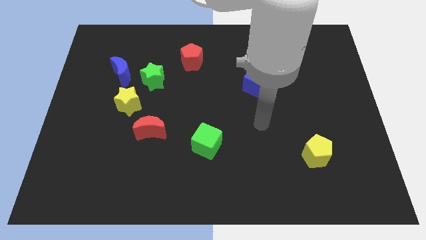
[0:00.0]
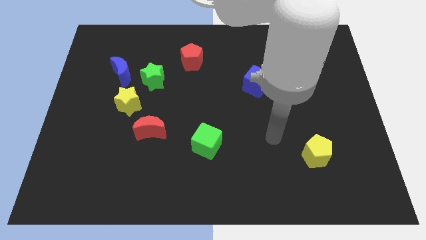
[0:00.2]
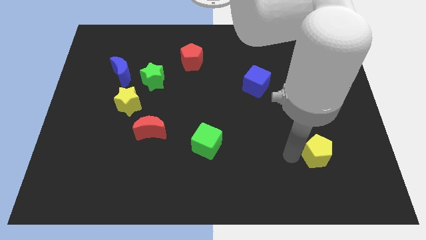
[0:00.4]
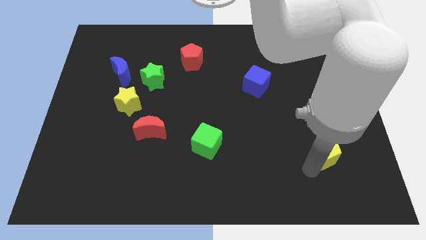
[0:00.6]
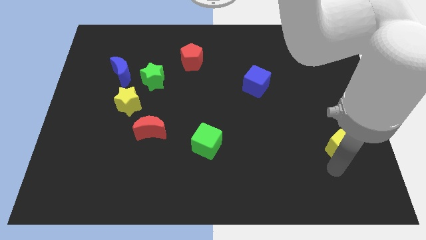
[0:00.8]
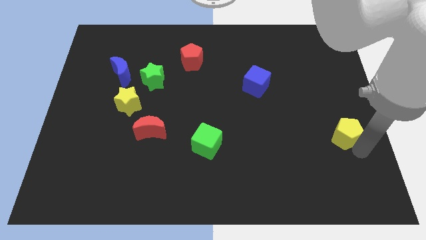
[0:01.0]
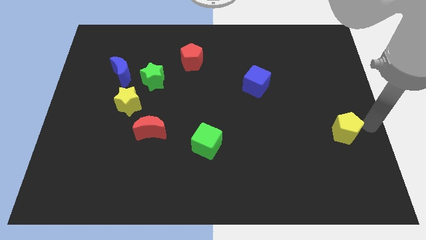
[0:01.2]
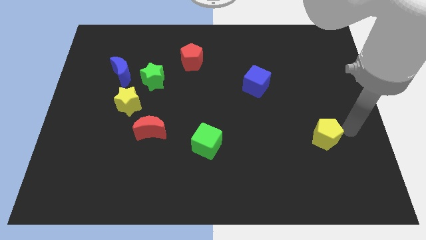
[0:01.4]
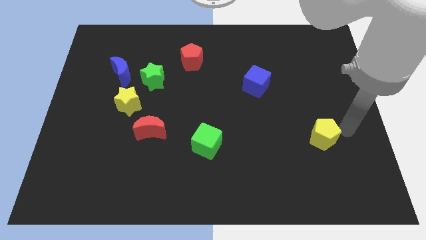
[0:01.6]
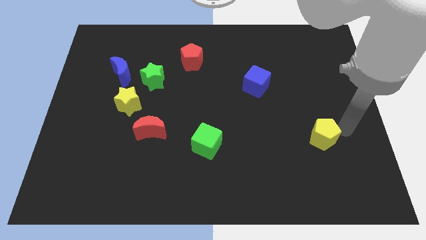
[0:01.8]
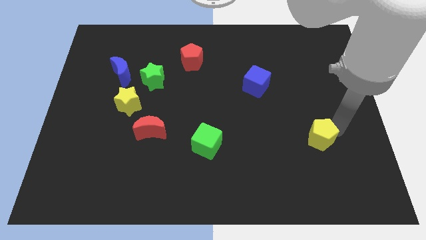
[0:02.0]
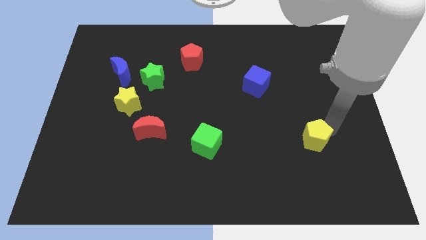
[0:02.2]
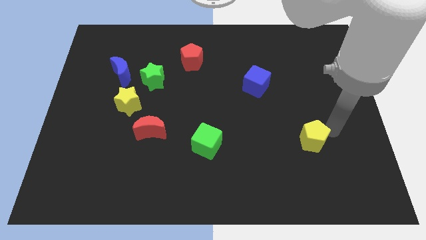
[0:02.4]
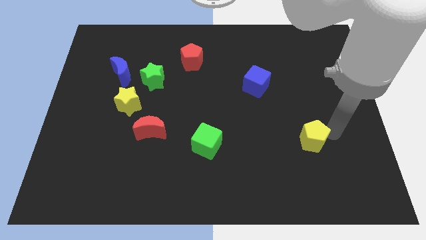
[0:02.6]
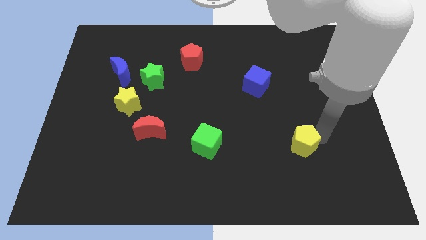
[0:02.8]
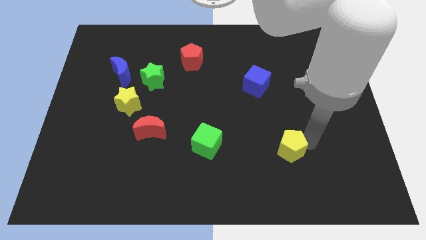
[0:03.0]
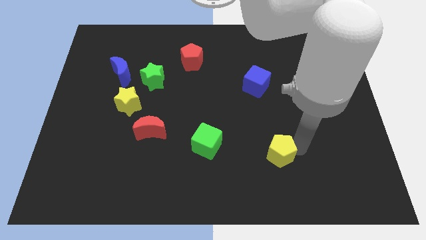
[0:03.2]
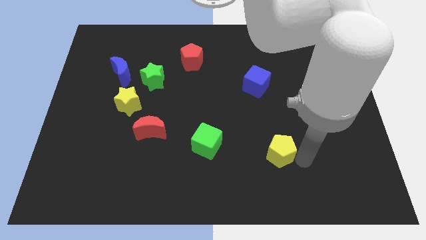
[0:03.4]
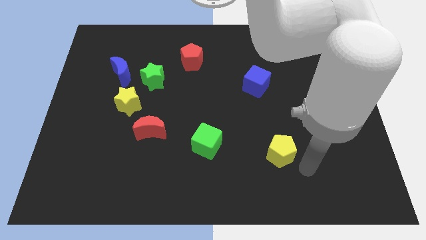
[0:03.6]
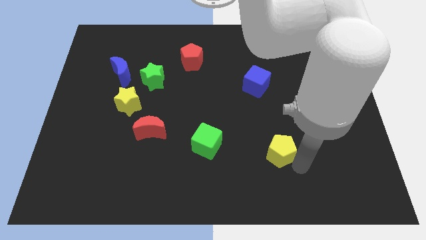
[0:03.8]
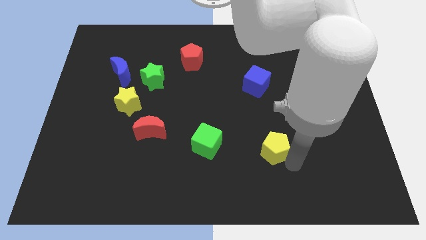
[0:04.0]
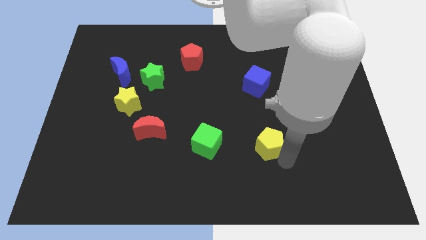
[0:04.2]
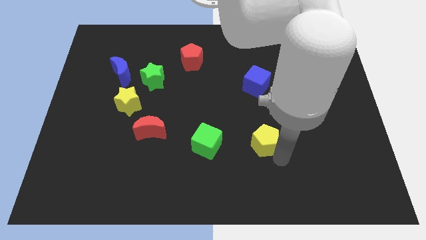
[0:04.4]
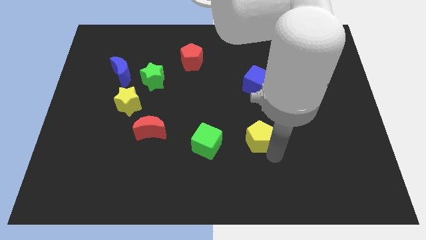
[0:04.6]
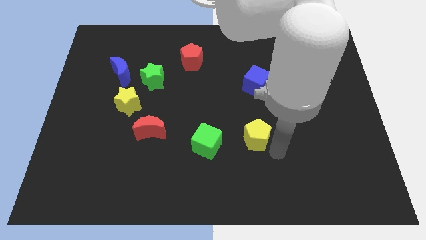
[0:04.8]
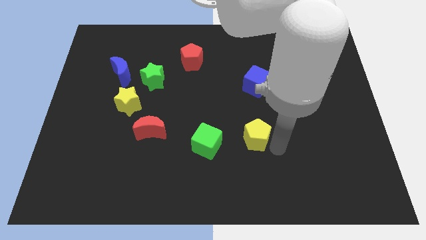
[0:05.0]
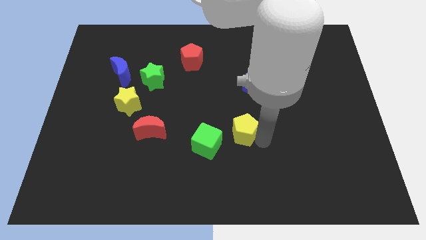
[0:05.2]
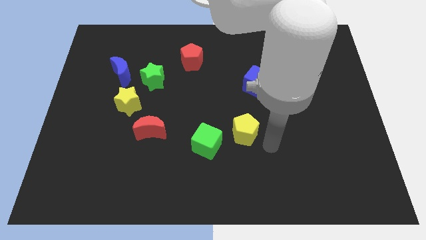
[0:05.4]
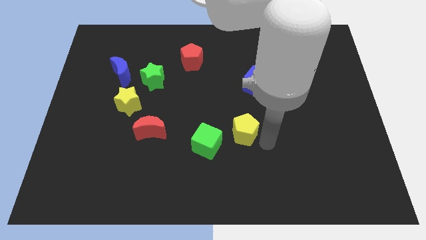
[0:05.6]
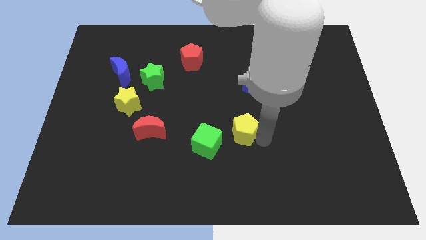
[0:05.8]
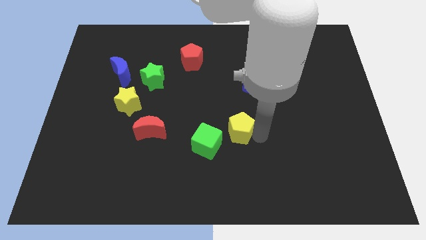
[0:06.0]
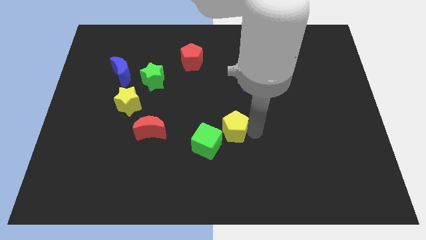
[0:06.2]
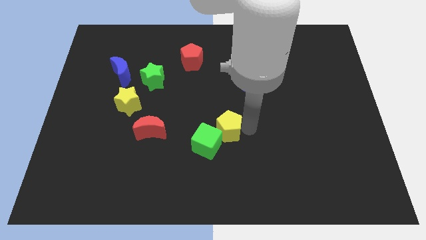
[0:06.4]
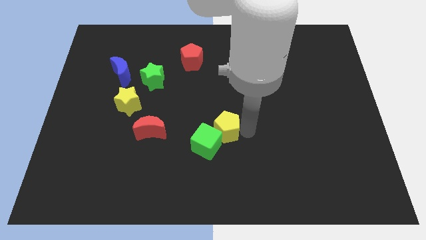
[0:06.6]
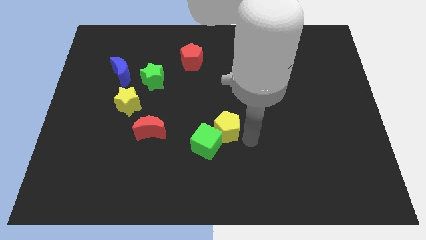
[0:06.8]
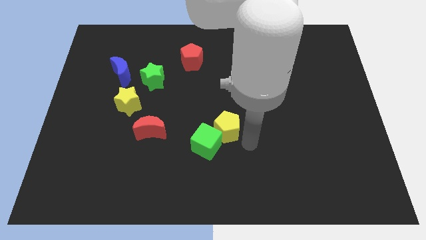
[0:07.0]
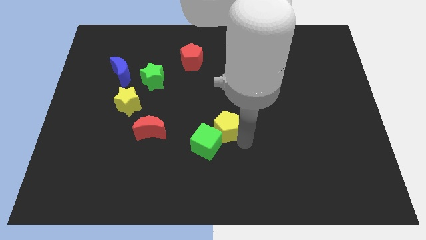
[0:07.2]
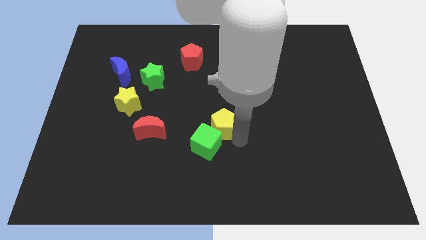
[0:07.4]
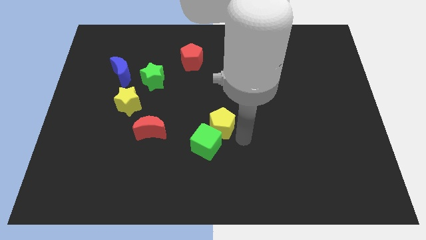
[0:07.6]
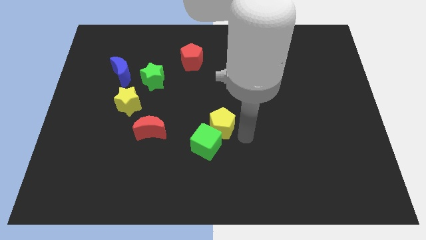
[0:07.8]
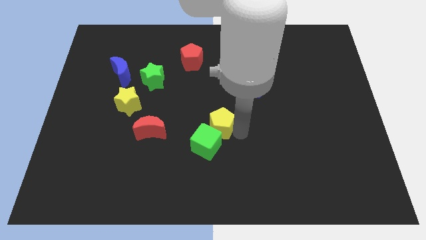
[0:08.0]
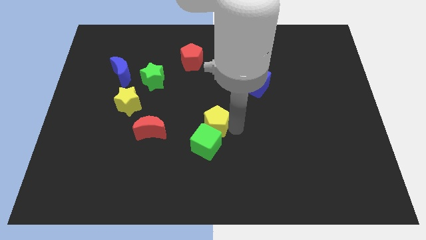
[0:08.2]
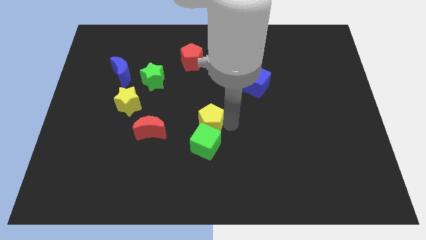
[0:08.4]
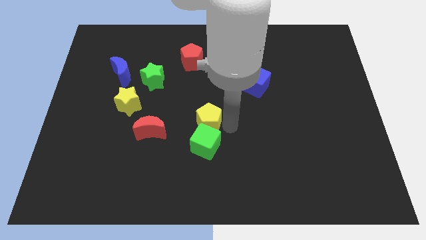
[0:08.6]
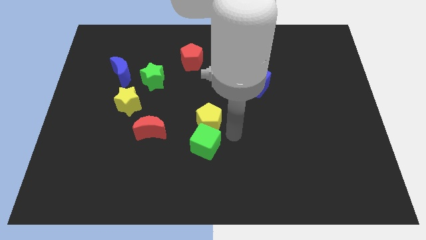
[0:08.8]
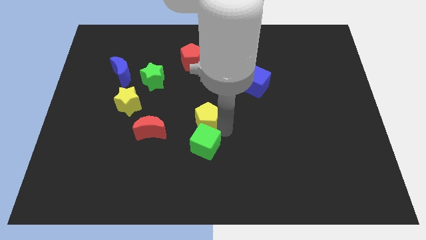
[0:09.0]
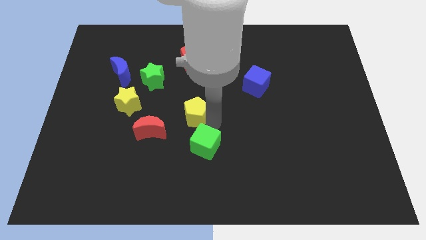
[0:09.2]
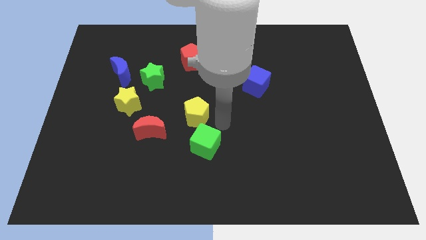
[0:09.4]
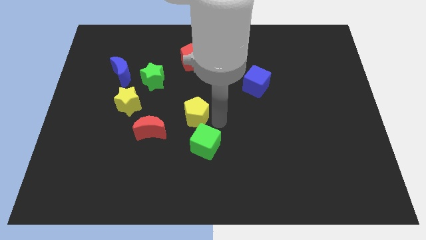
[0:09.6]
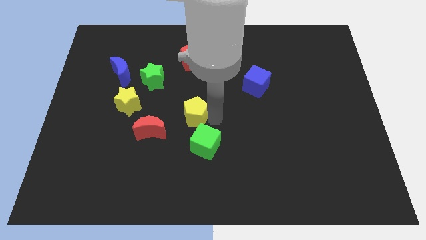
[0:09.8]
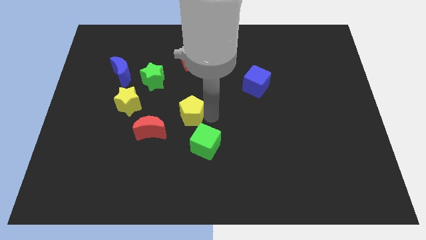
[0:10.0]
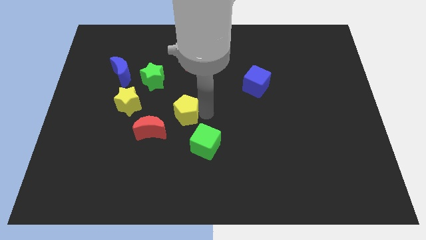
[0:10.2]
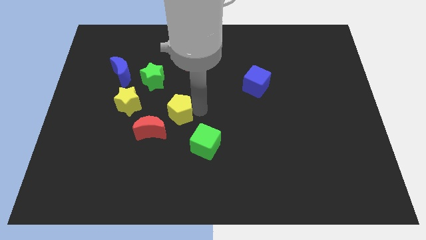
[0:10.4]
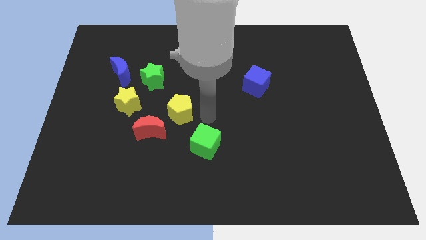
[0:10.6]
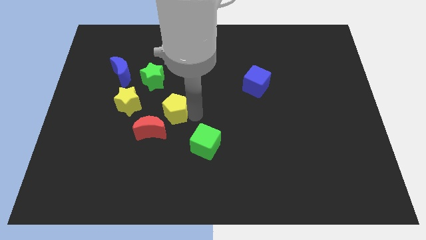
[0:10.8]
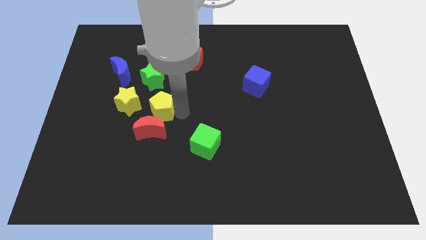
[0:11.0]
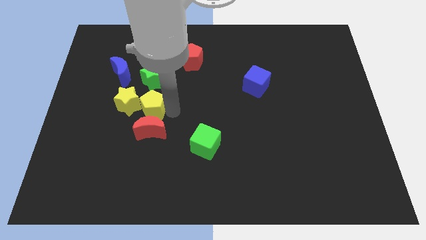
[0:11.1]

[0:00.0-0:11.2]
move the yellow pentagon next to the yellow star

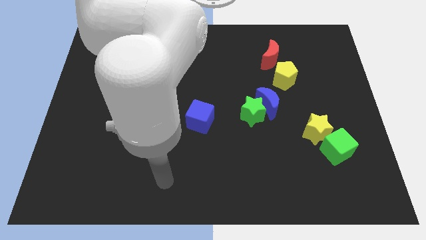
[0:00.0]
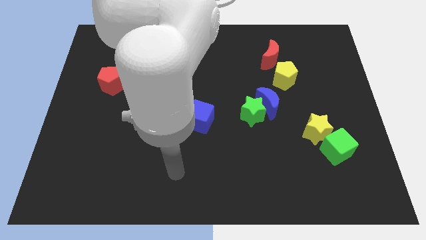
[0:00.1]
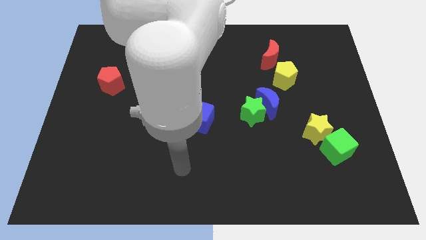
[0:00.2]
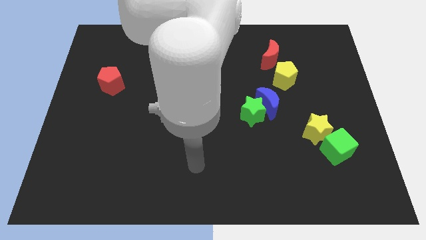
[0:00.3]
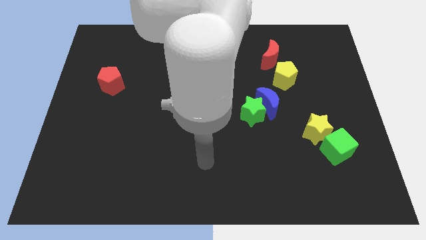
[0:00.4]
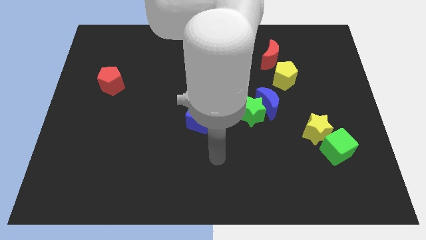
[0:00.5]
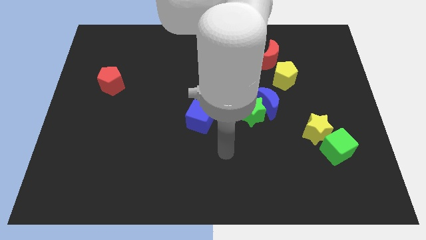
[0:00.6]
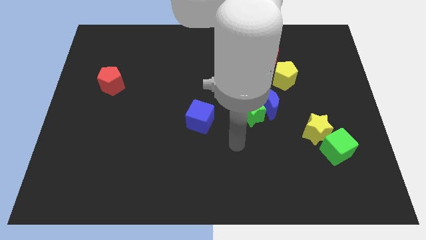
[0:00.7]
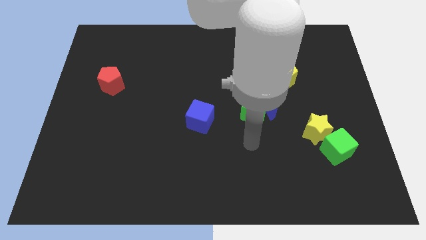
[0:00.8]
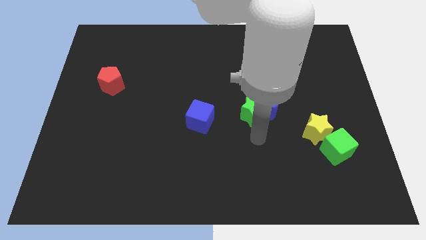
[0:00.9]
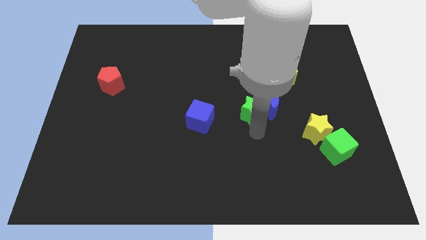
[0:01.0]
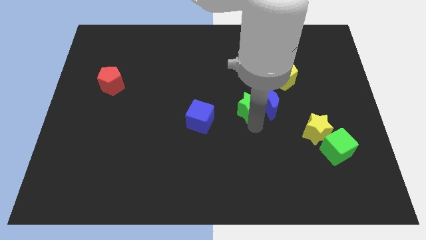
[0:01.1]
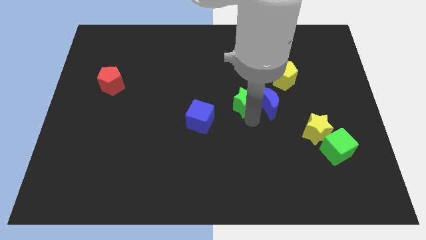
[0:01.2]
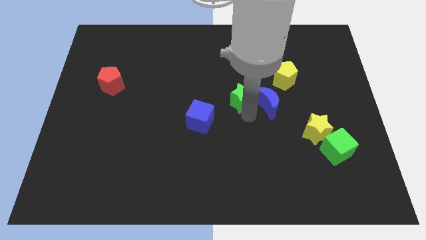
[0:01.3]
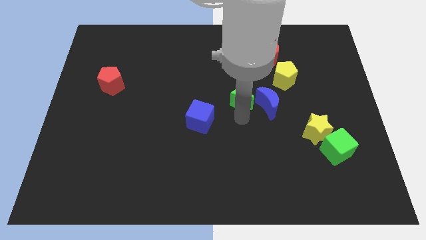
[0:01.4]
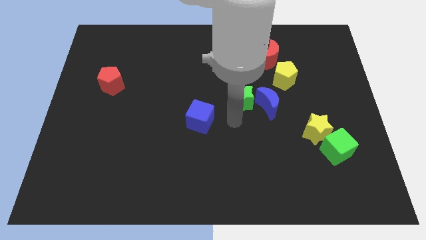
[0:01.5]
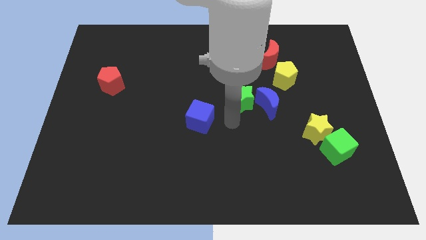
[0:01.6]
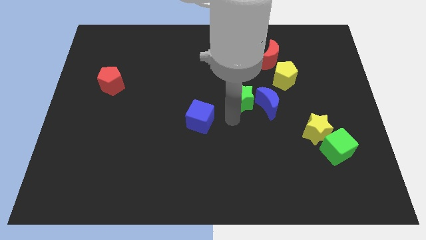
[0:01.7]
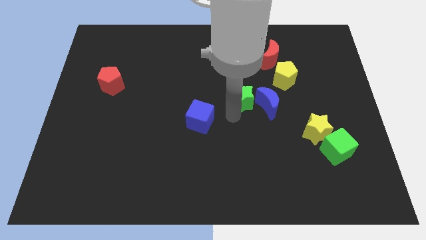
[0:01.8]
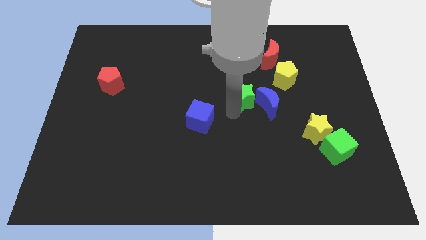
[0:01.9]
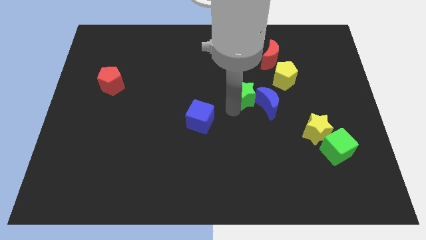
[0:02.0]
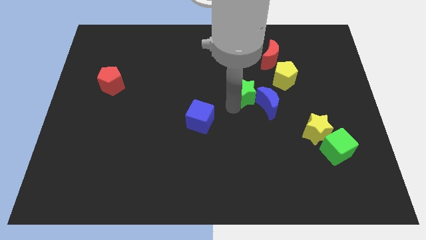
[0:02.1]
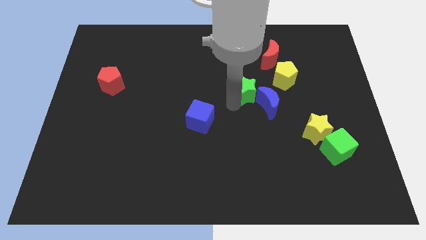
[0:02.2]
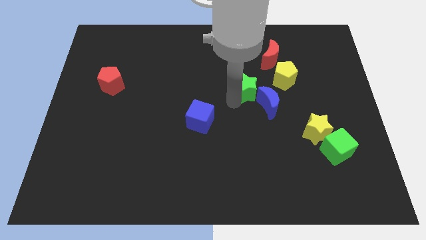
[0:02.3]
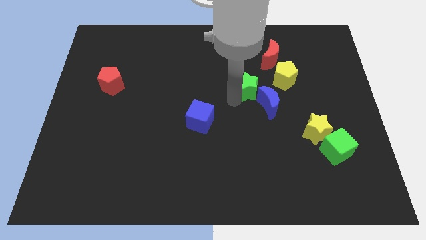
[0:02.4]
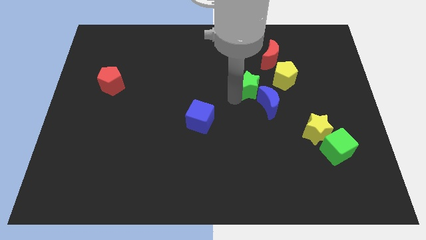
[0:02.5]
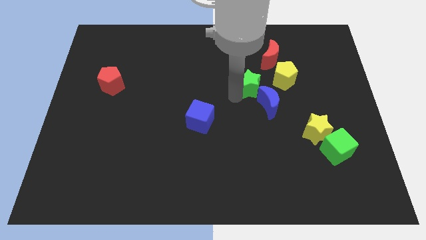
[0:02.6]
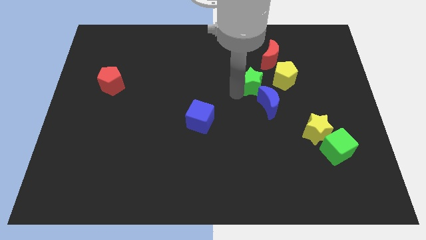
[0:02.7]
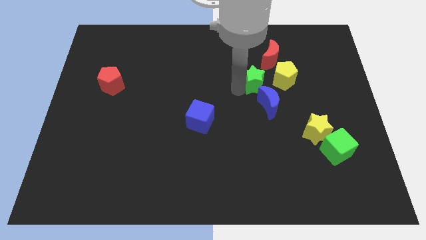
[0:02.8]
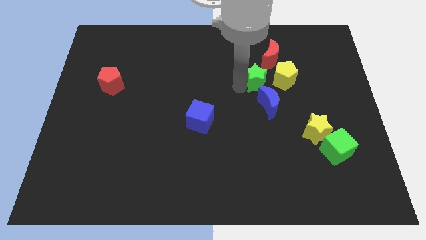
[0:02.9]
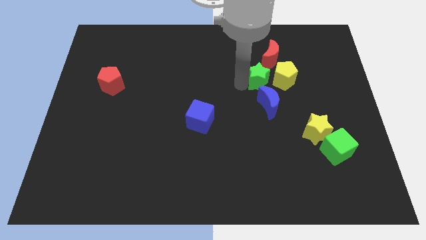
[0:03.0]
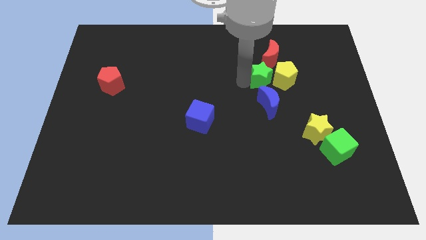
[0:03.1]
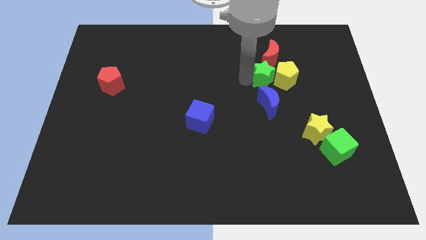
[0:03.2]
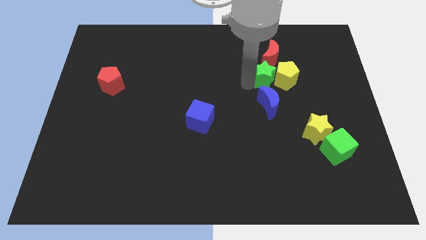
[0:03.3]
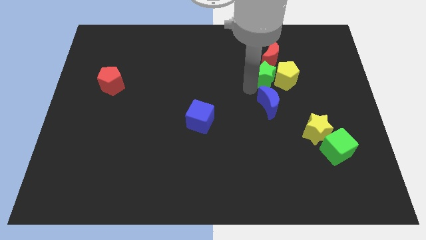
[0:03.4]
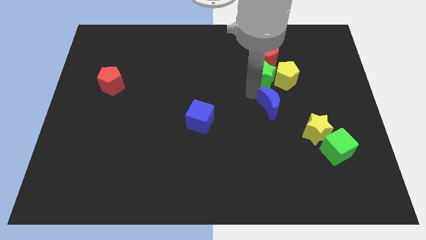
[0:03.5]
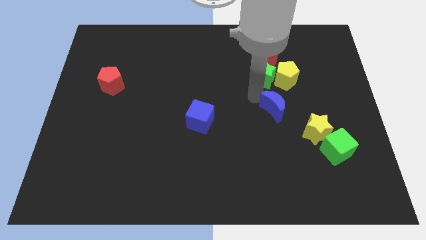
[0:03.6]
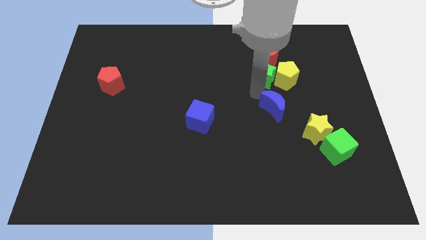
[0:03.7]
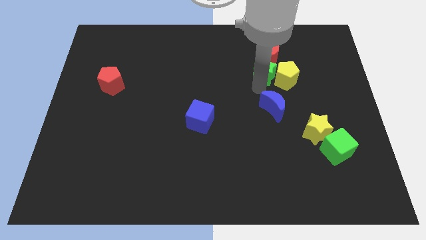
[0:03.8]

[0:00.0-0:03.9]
move the green star towards the red moon
